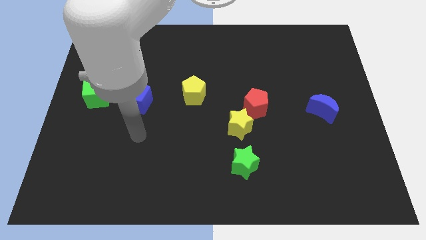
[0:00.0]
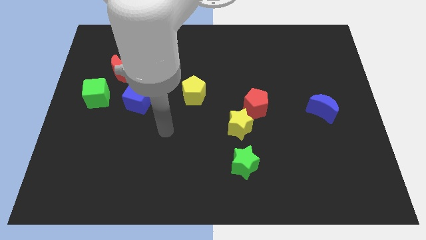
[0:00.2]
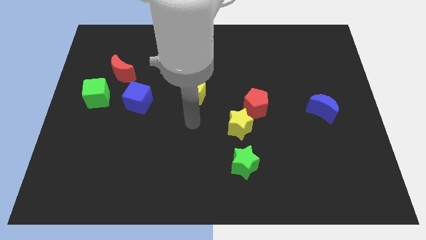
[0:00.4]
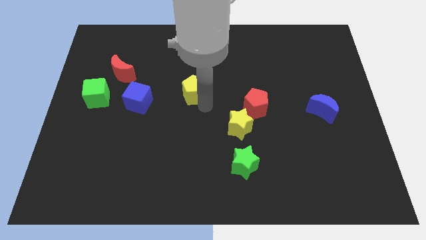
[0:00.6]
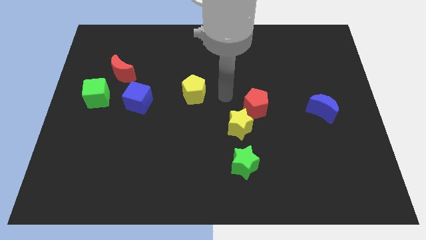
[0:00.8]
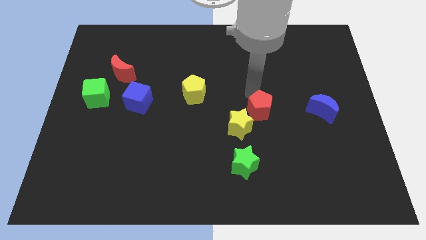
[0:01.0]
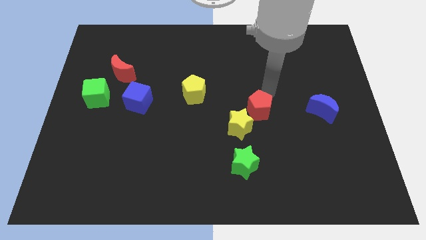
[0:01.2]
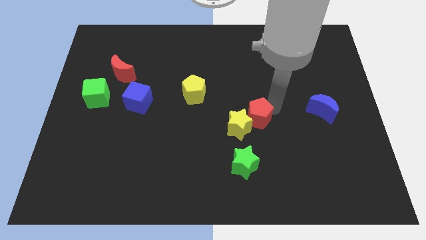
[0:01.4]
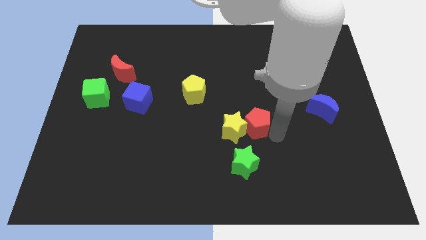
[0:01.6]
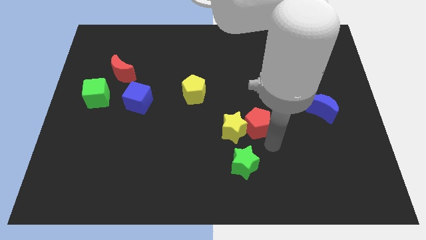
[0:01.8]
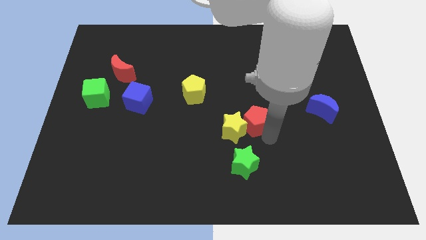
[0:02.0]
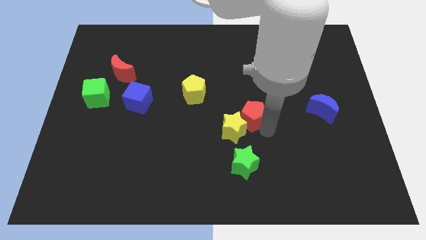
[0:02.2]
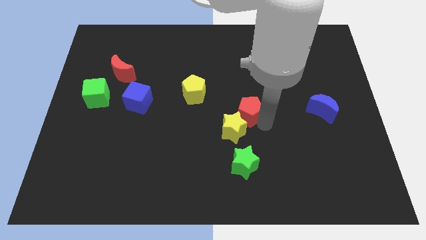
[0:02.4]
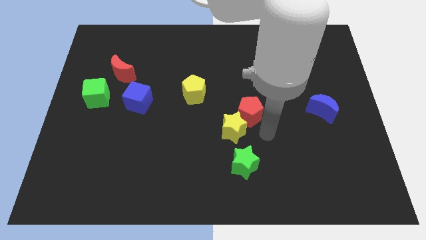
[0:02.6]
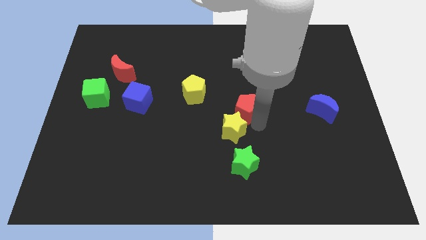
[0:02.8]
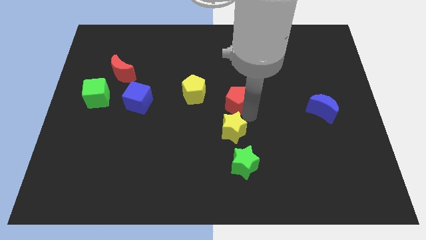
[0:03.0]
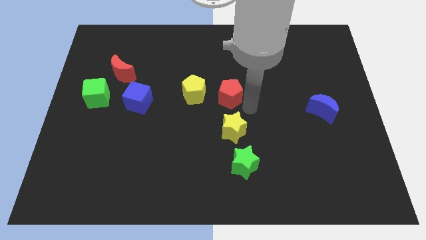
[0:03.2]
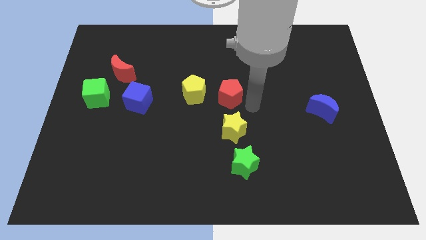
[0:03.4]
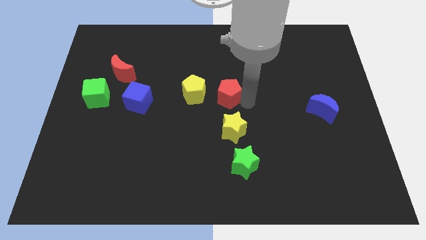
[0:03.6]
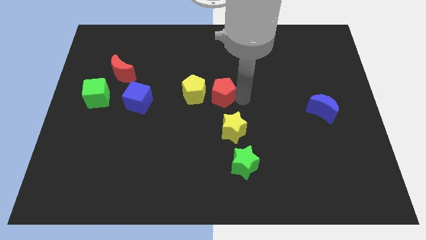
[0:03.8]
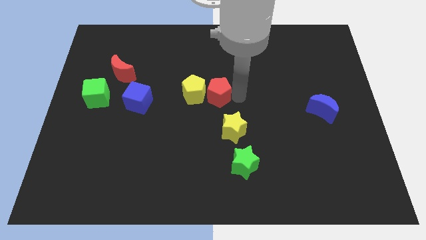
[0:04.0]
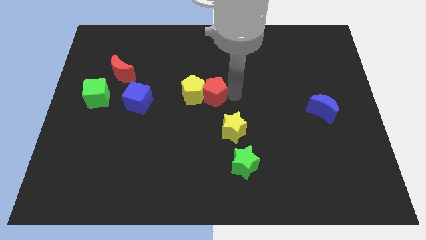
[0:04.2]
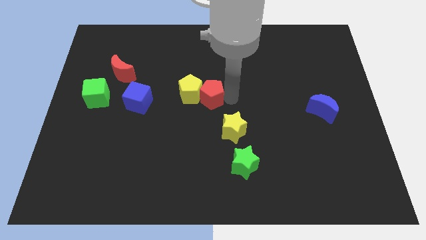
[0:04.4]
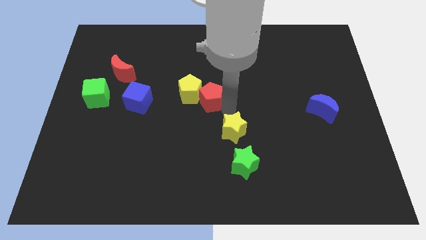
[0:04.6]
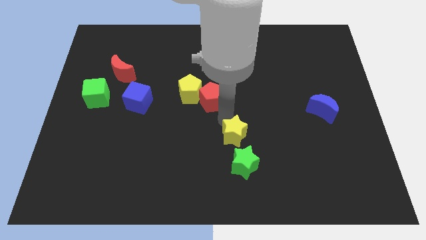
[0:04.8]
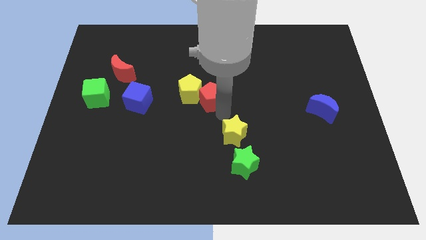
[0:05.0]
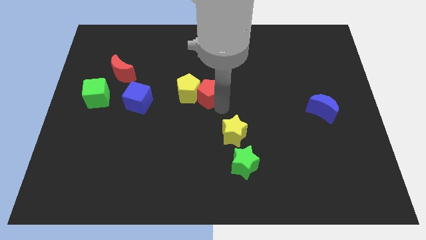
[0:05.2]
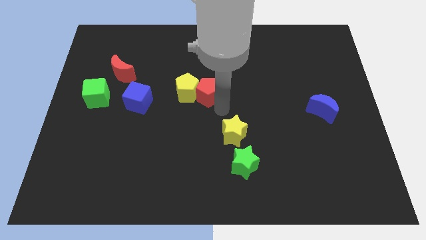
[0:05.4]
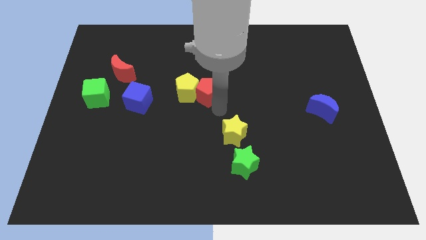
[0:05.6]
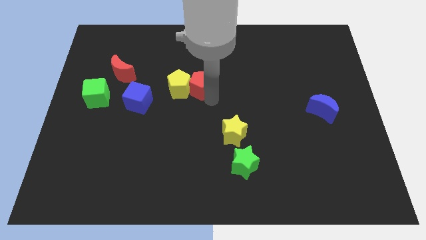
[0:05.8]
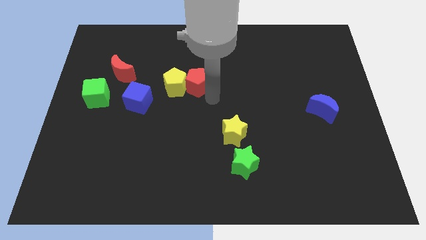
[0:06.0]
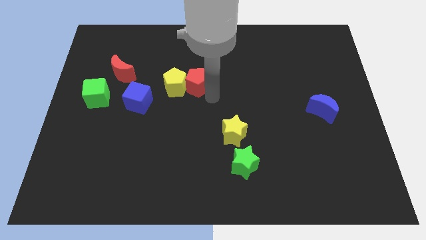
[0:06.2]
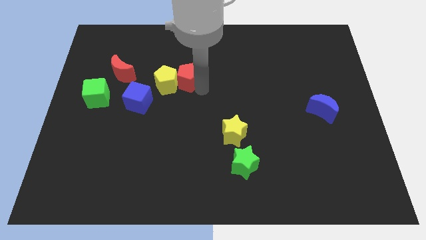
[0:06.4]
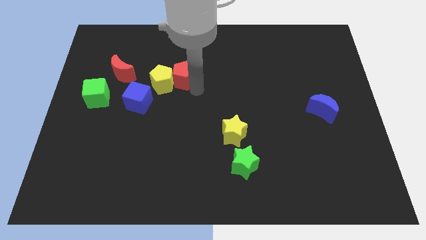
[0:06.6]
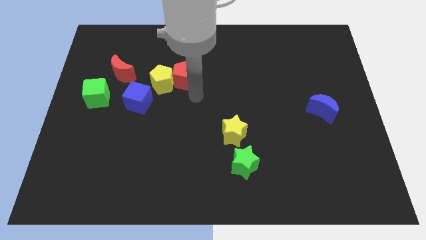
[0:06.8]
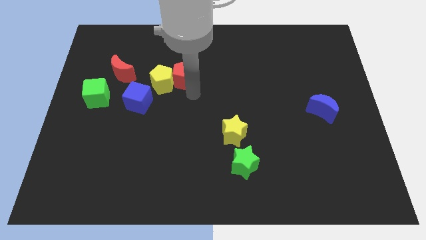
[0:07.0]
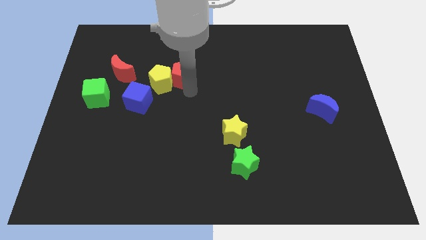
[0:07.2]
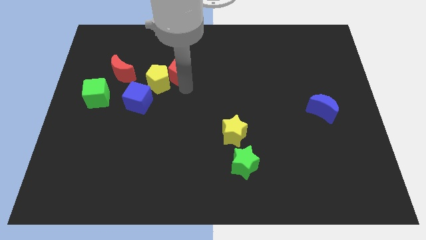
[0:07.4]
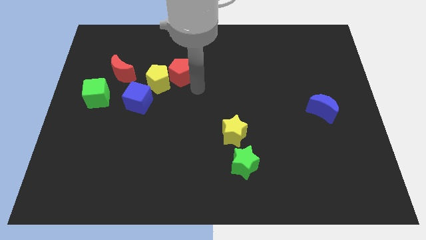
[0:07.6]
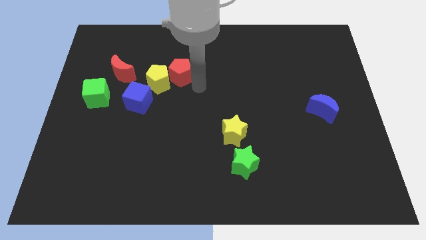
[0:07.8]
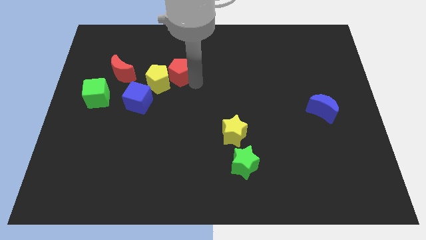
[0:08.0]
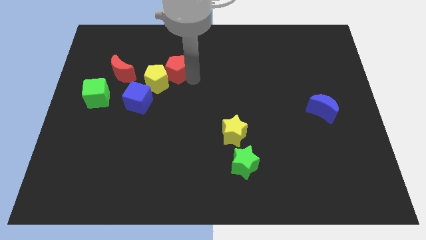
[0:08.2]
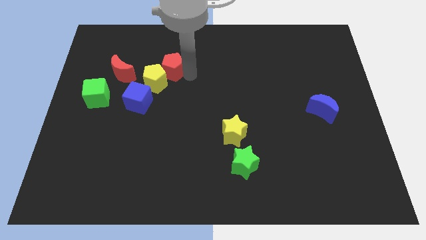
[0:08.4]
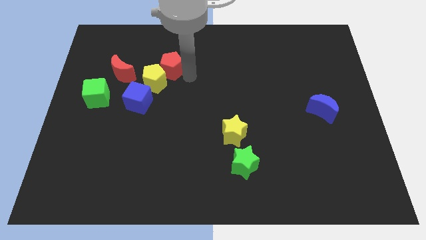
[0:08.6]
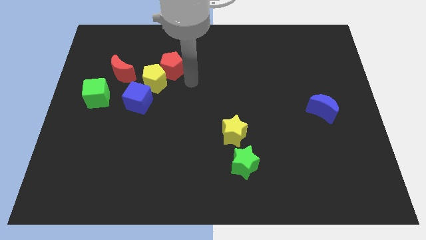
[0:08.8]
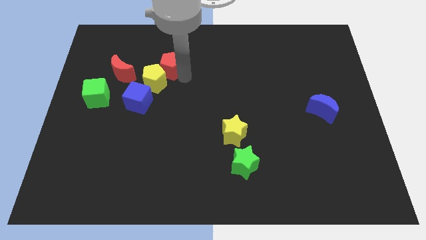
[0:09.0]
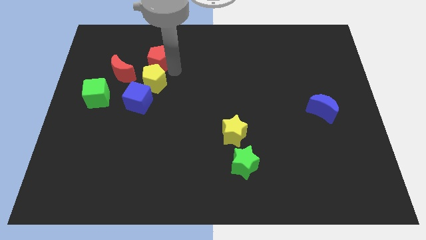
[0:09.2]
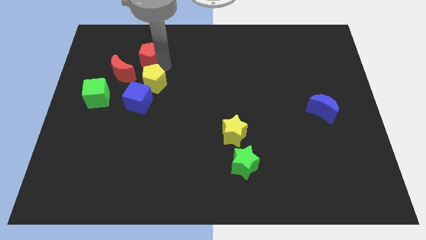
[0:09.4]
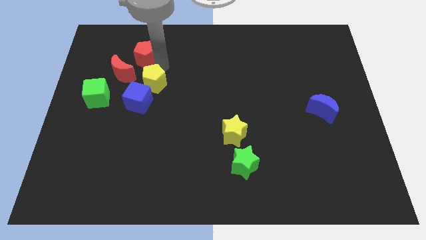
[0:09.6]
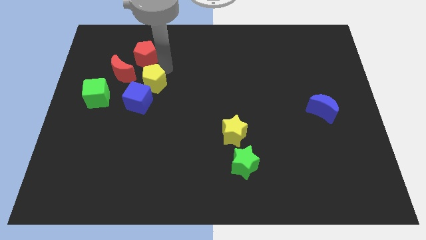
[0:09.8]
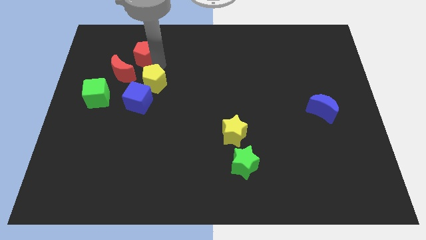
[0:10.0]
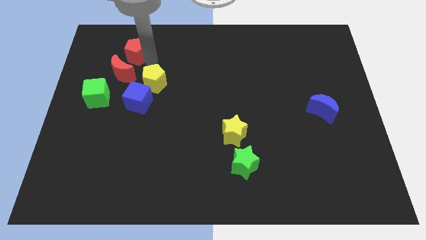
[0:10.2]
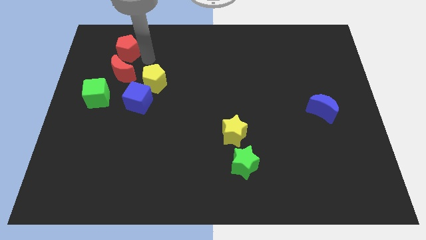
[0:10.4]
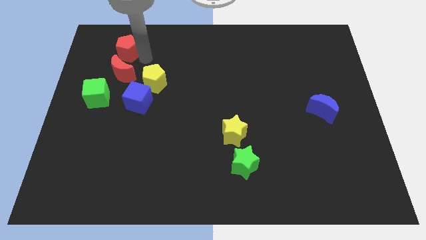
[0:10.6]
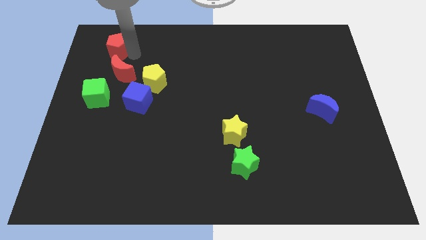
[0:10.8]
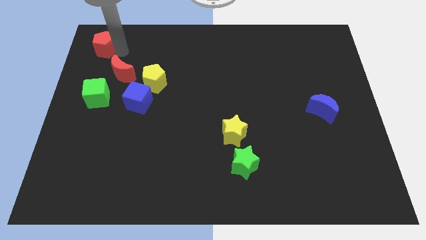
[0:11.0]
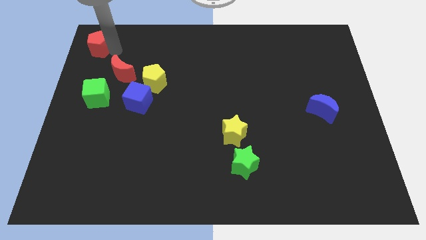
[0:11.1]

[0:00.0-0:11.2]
slide the red pentagon to the top left
